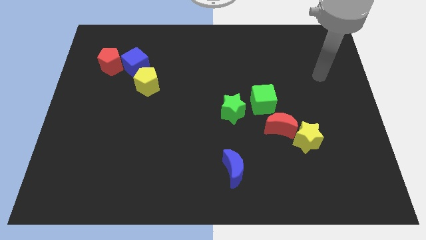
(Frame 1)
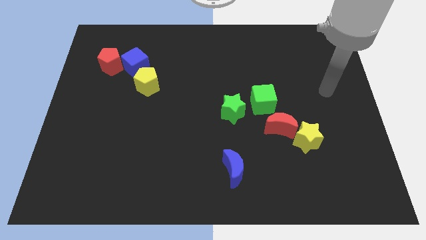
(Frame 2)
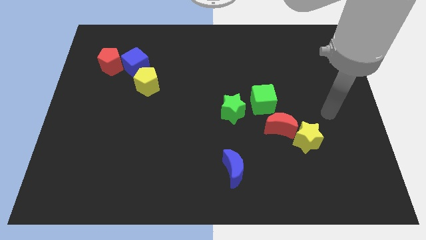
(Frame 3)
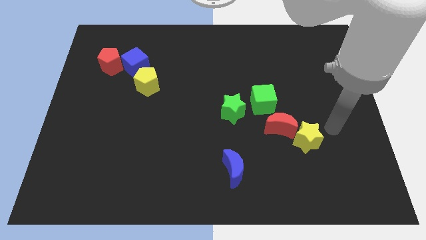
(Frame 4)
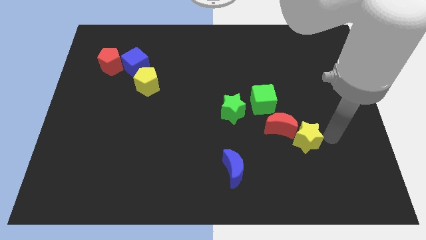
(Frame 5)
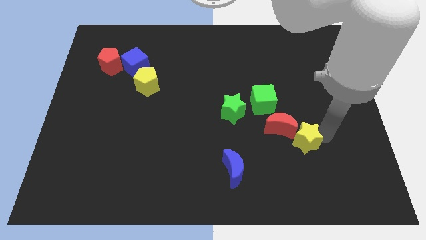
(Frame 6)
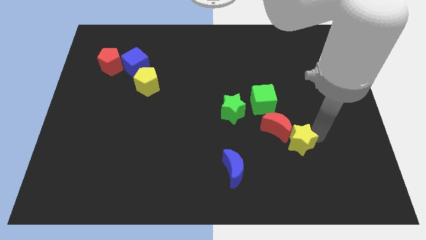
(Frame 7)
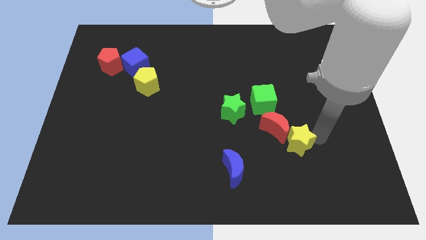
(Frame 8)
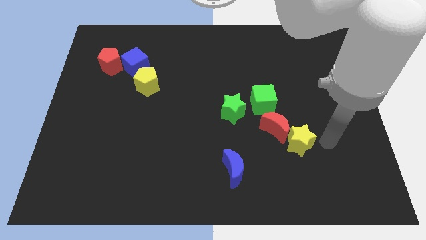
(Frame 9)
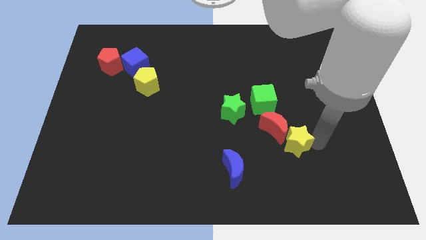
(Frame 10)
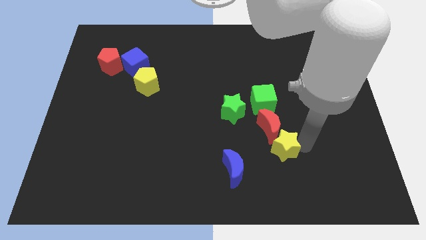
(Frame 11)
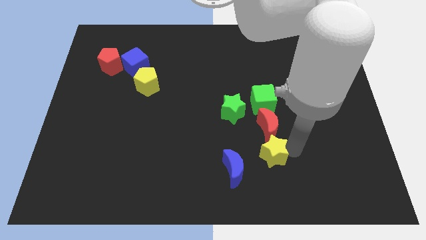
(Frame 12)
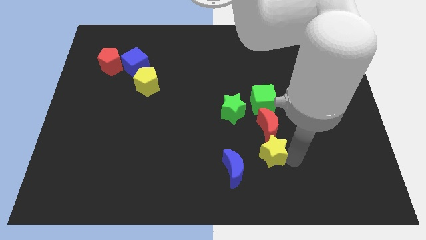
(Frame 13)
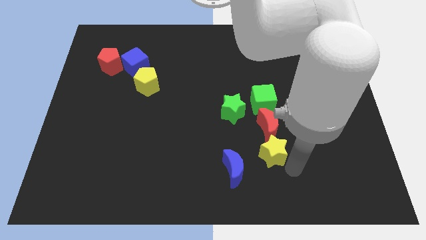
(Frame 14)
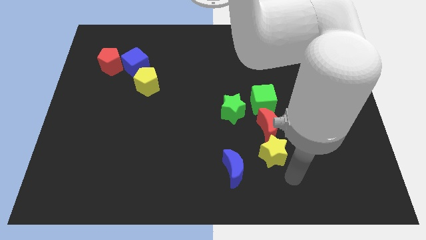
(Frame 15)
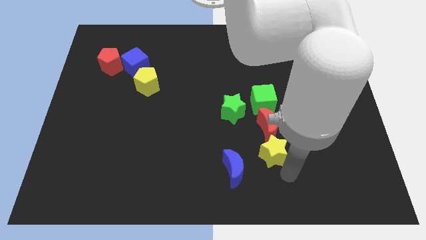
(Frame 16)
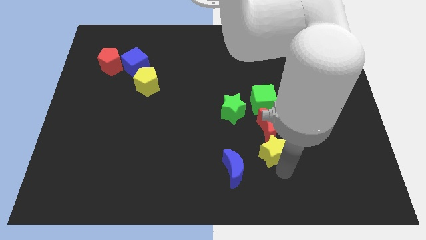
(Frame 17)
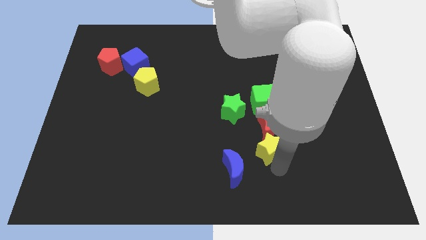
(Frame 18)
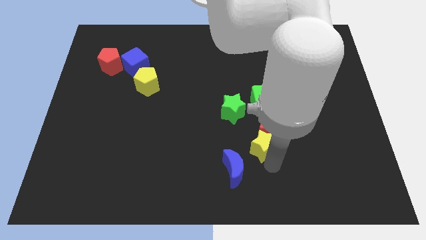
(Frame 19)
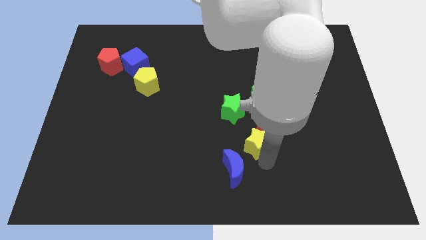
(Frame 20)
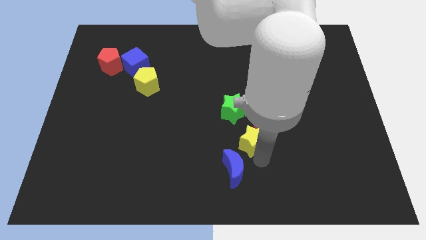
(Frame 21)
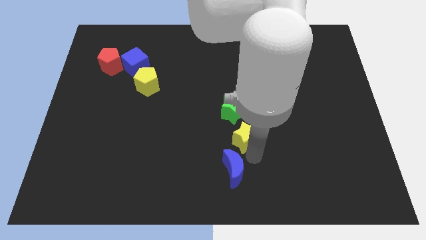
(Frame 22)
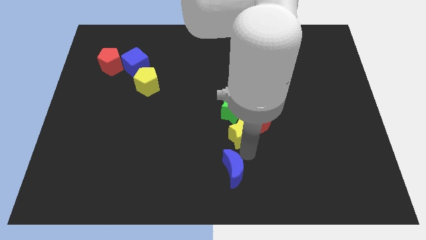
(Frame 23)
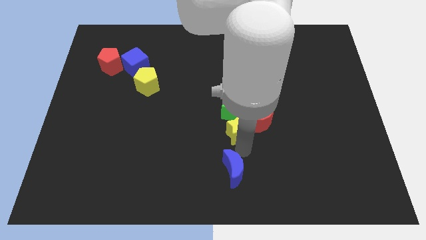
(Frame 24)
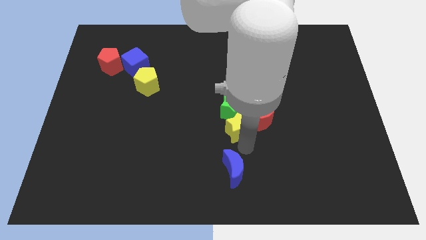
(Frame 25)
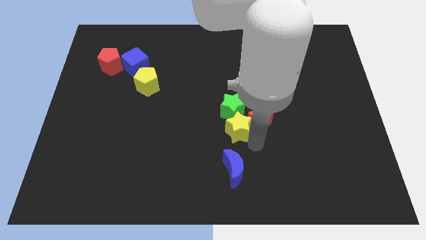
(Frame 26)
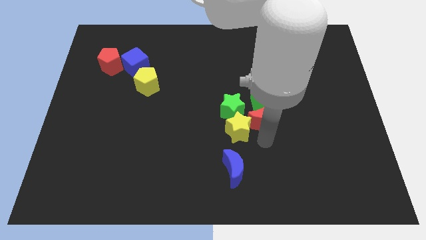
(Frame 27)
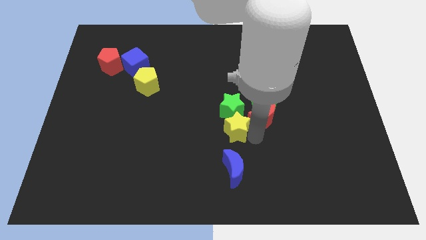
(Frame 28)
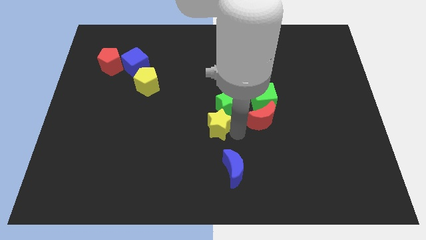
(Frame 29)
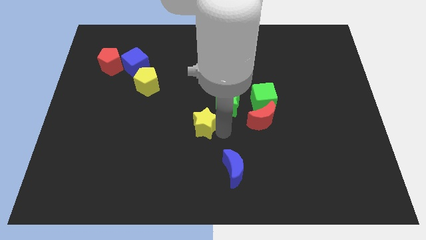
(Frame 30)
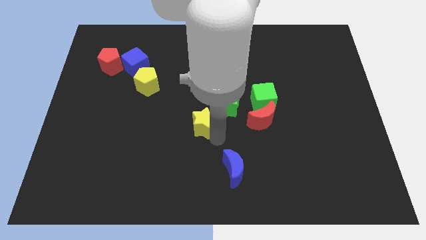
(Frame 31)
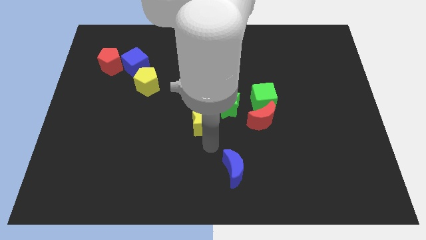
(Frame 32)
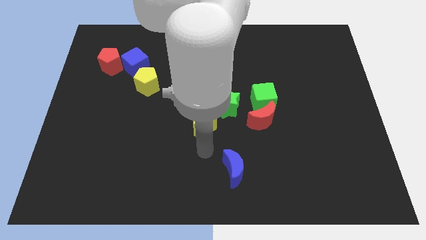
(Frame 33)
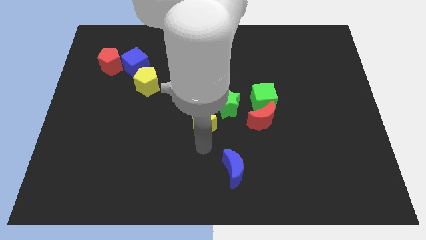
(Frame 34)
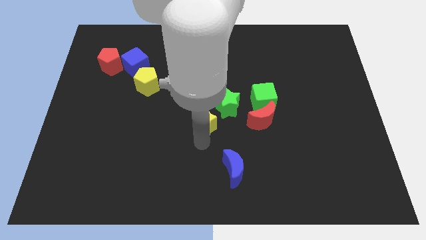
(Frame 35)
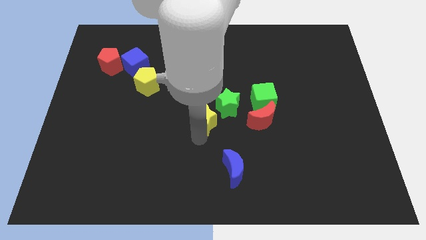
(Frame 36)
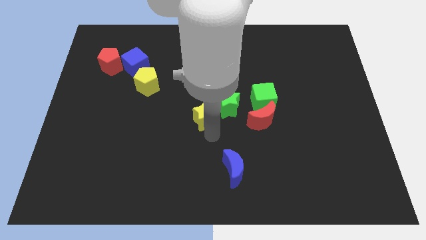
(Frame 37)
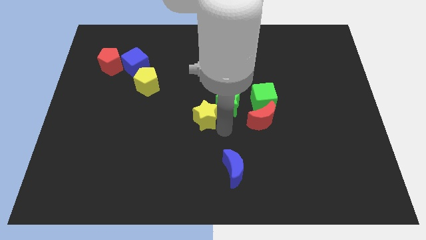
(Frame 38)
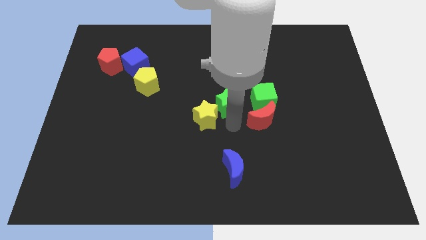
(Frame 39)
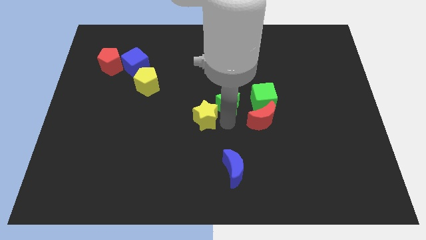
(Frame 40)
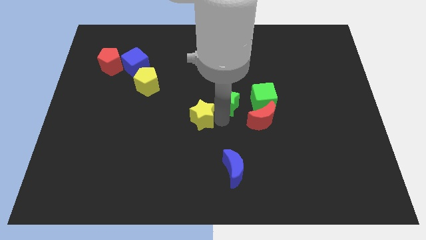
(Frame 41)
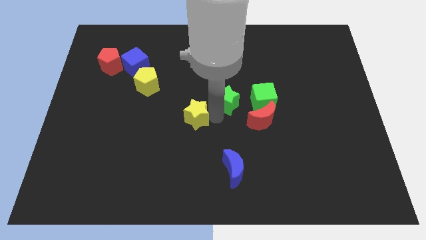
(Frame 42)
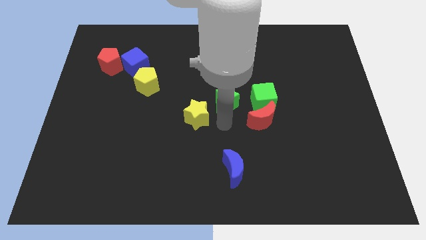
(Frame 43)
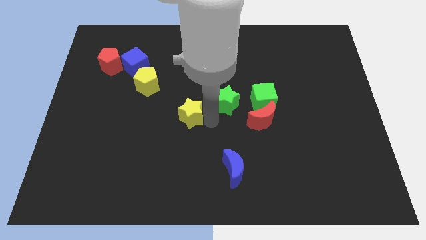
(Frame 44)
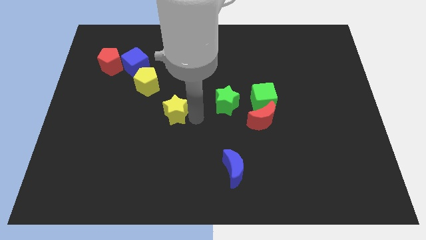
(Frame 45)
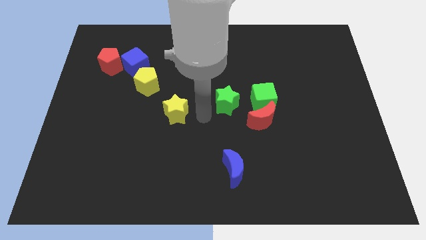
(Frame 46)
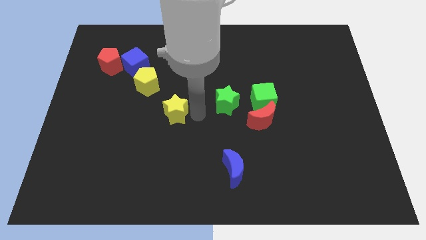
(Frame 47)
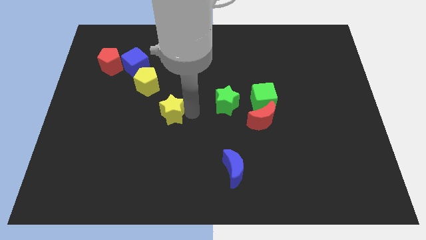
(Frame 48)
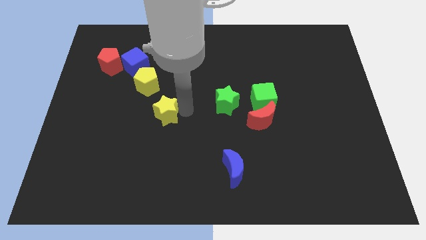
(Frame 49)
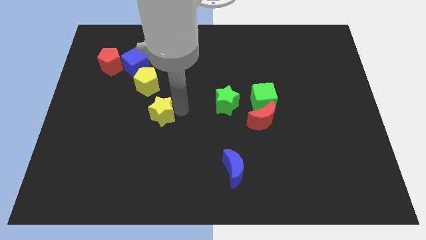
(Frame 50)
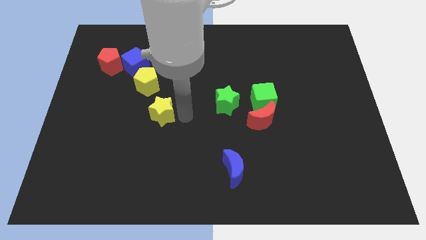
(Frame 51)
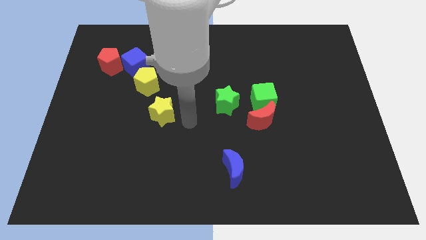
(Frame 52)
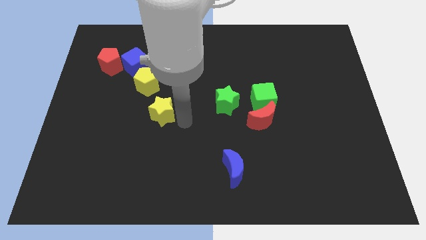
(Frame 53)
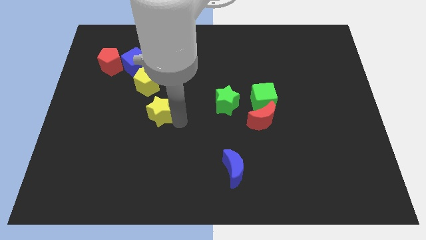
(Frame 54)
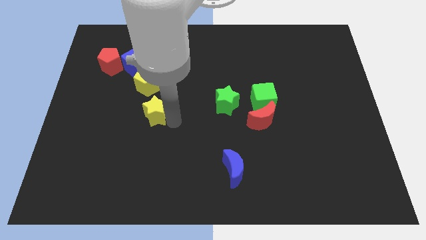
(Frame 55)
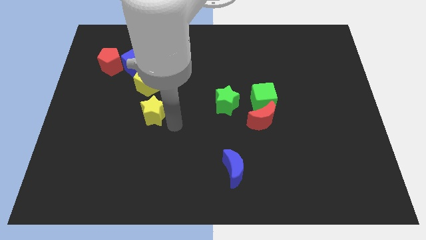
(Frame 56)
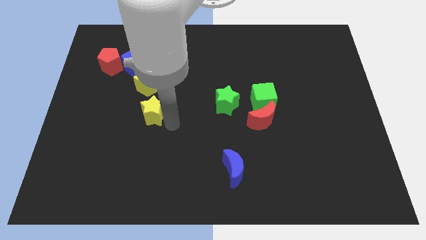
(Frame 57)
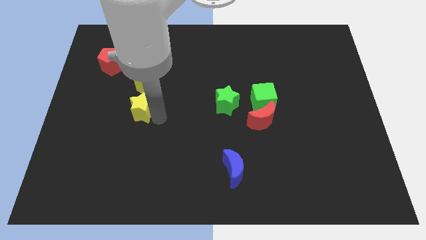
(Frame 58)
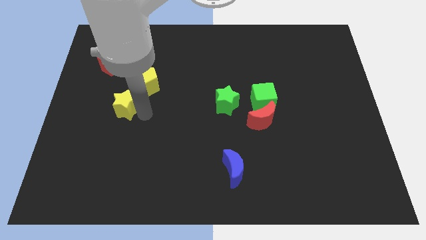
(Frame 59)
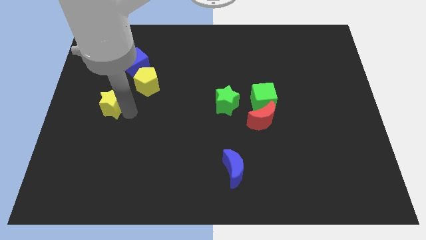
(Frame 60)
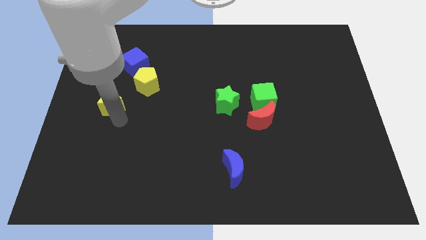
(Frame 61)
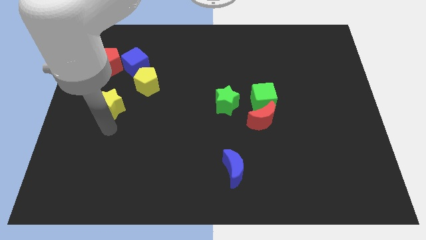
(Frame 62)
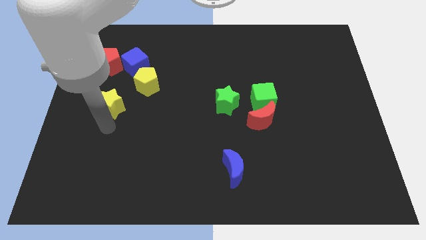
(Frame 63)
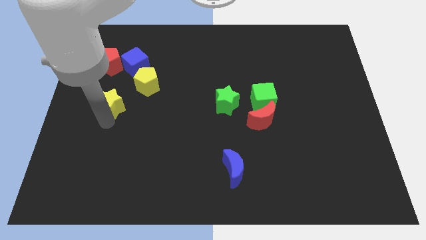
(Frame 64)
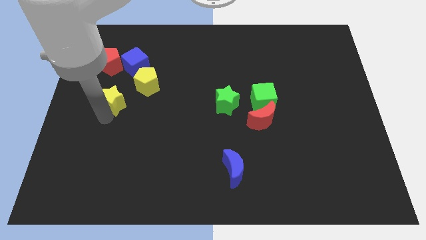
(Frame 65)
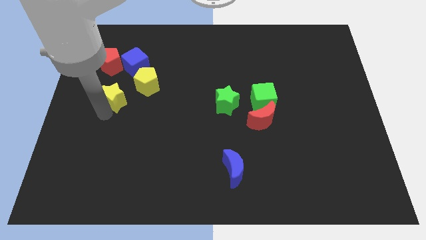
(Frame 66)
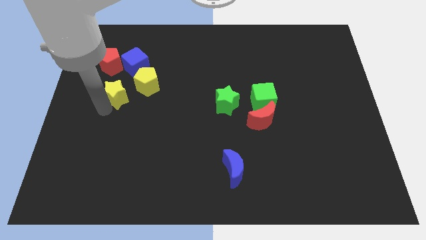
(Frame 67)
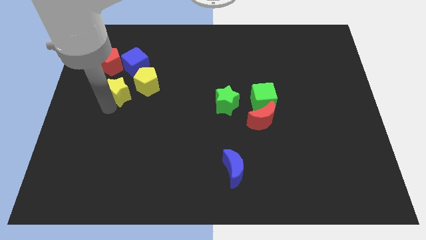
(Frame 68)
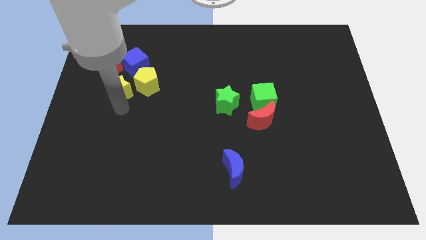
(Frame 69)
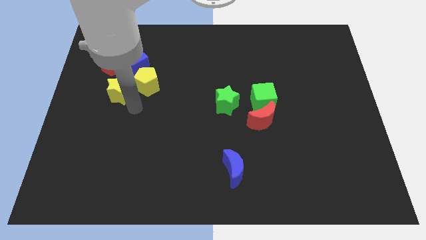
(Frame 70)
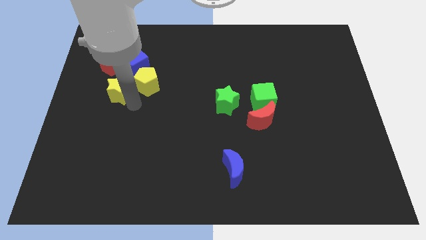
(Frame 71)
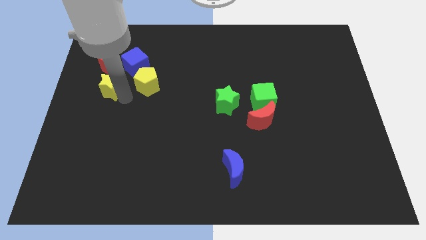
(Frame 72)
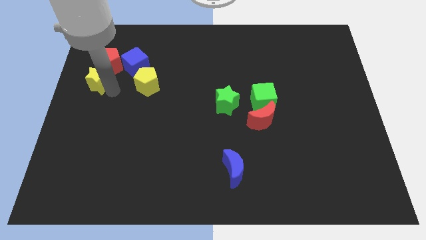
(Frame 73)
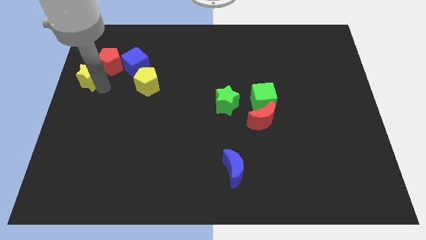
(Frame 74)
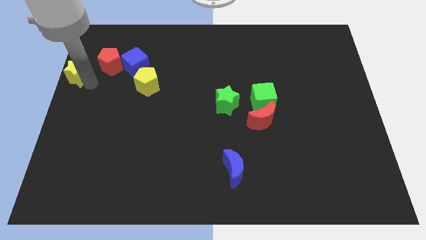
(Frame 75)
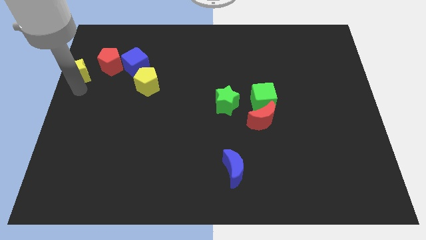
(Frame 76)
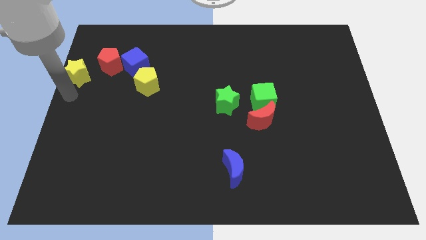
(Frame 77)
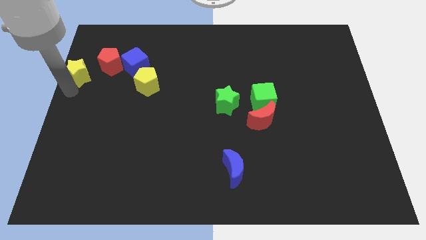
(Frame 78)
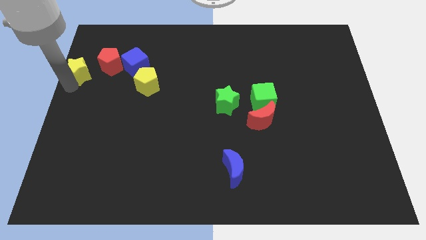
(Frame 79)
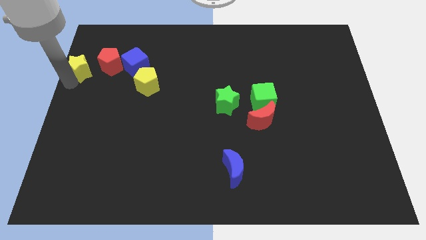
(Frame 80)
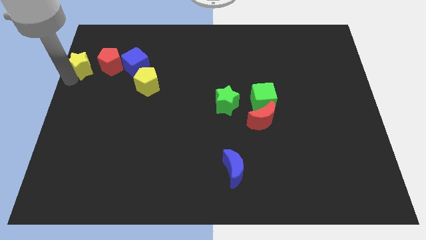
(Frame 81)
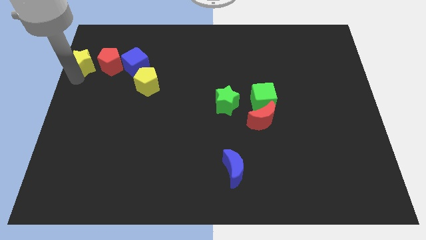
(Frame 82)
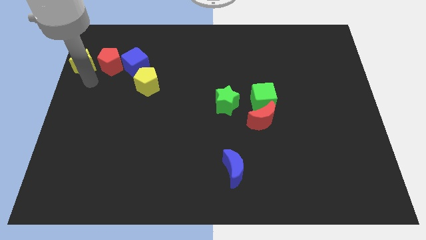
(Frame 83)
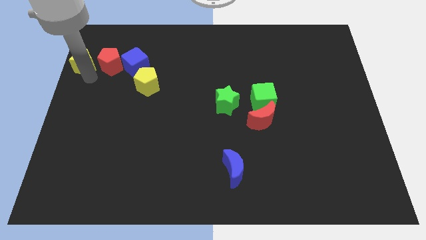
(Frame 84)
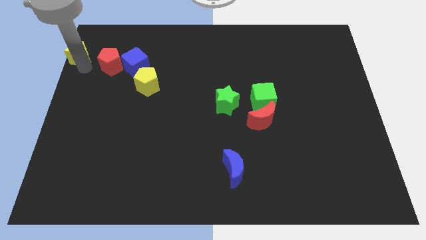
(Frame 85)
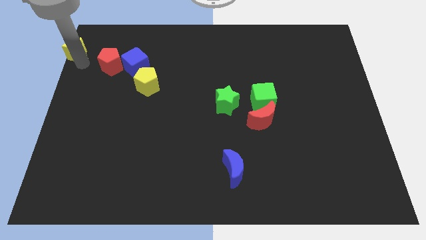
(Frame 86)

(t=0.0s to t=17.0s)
put the yellow star to the upper left corner
